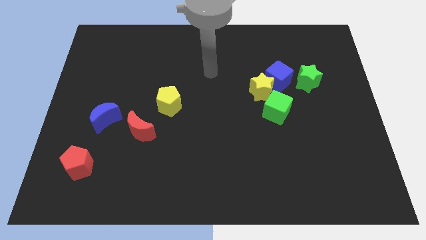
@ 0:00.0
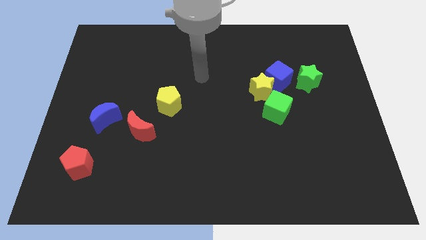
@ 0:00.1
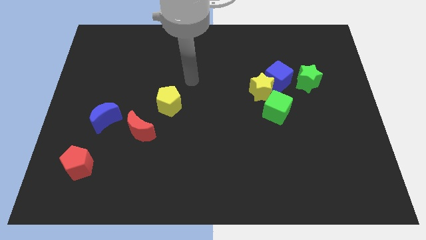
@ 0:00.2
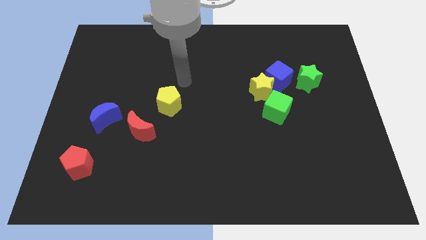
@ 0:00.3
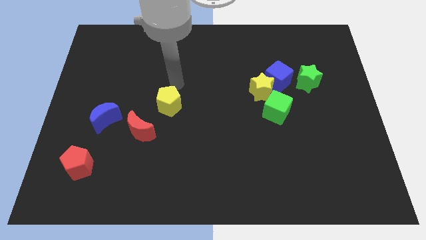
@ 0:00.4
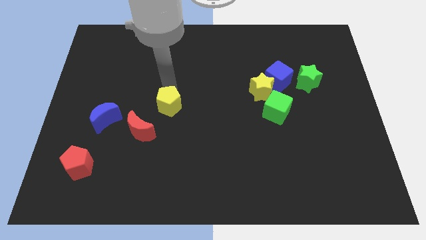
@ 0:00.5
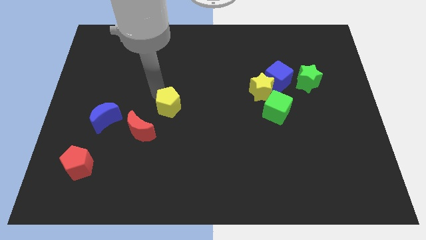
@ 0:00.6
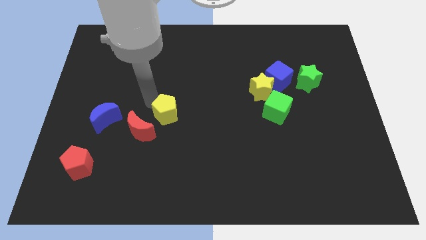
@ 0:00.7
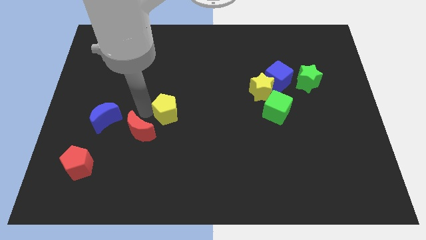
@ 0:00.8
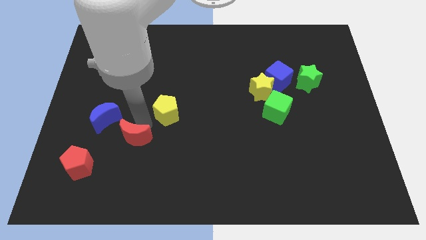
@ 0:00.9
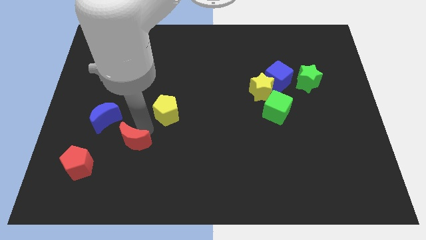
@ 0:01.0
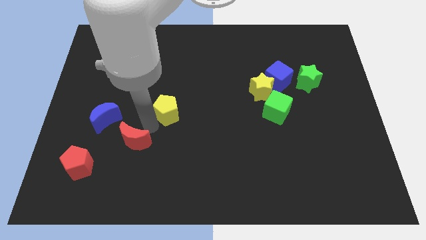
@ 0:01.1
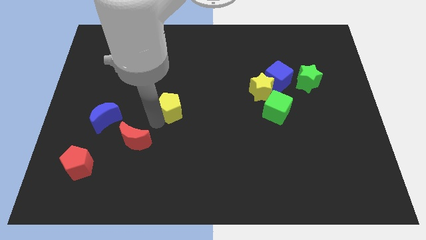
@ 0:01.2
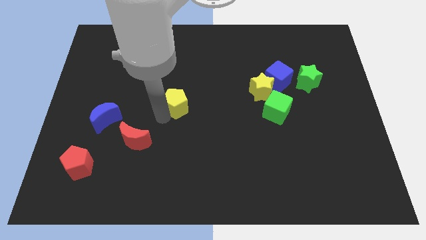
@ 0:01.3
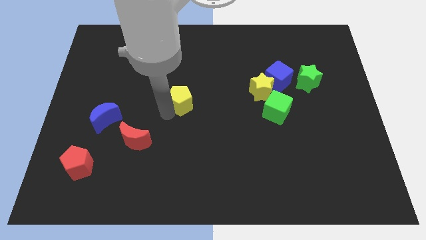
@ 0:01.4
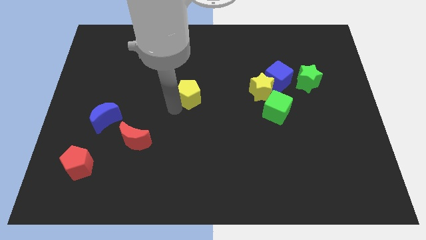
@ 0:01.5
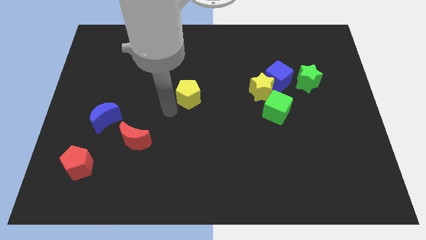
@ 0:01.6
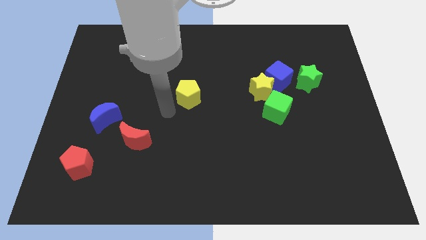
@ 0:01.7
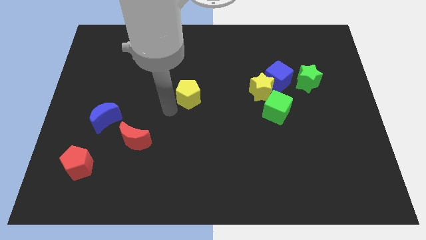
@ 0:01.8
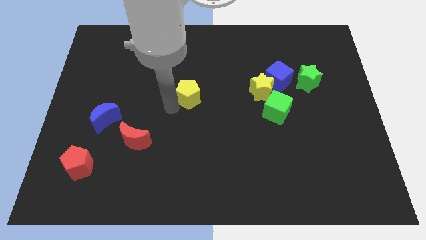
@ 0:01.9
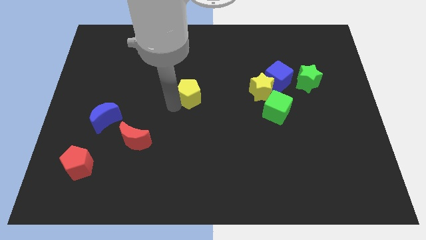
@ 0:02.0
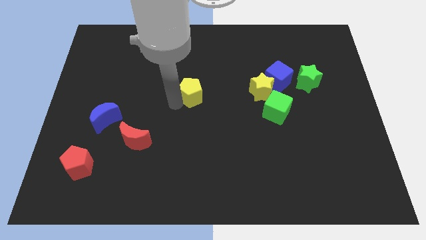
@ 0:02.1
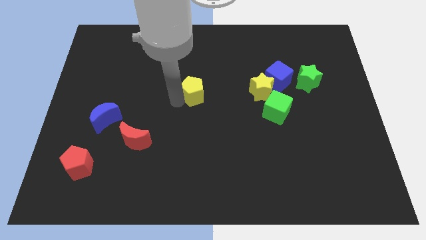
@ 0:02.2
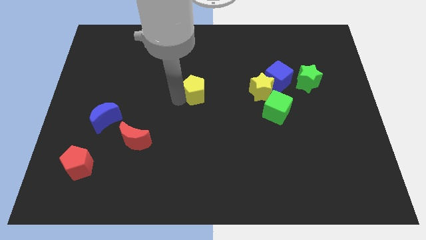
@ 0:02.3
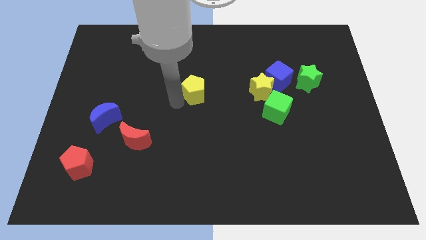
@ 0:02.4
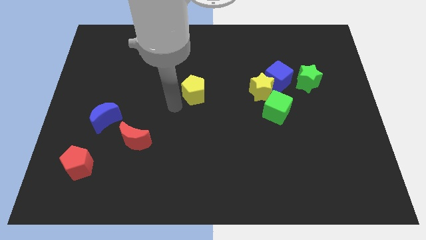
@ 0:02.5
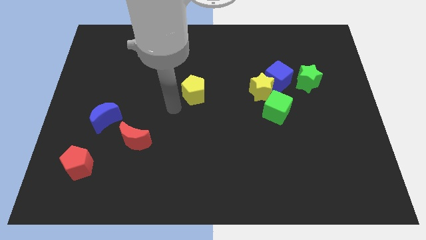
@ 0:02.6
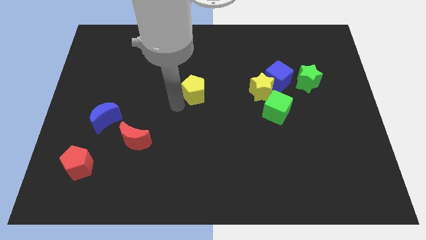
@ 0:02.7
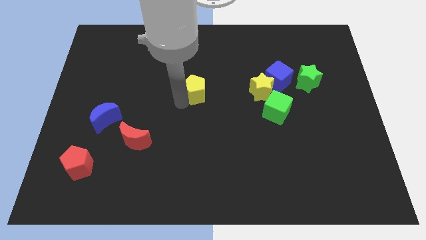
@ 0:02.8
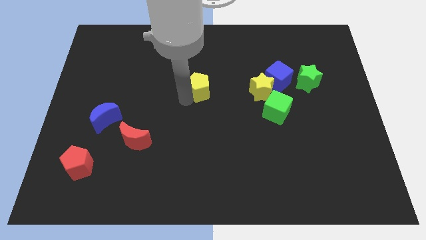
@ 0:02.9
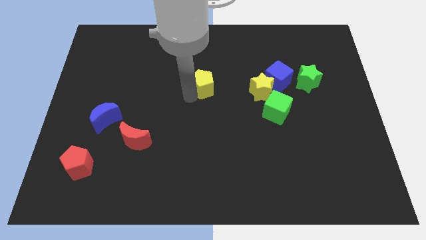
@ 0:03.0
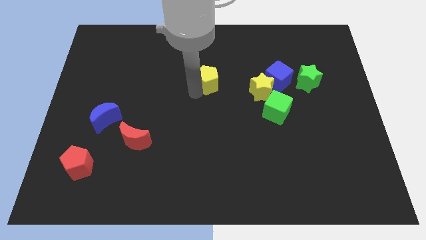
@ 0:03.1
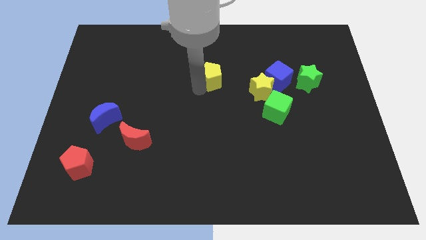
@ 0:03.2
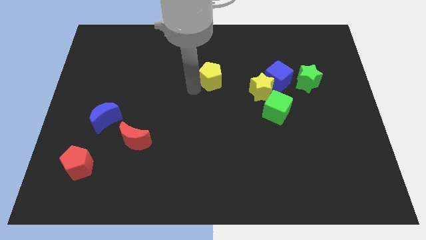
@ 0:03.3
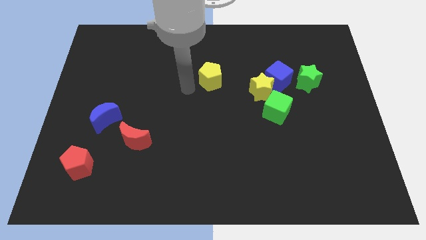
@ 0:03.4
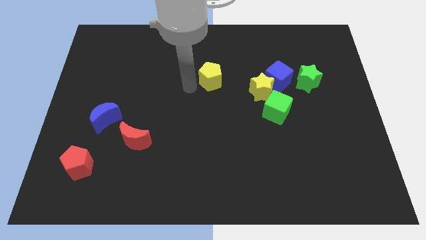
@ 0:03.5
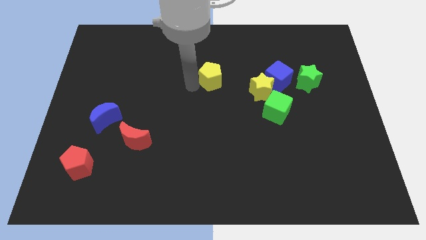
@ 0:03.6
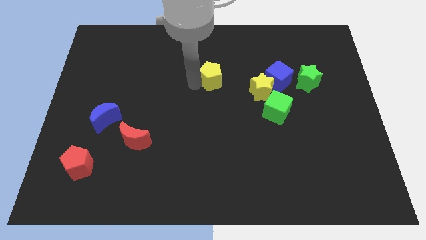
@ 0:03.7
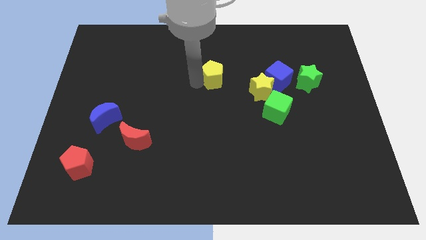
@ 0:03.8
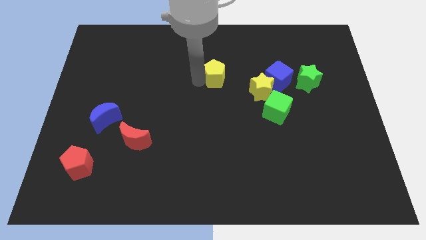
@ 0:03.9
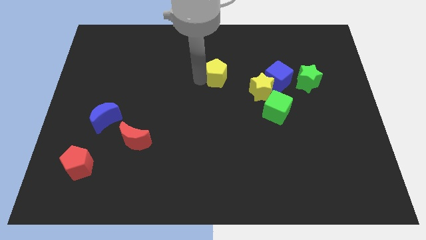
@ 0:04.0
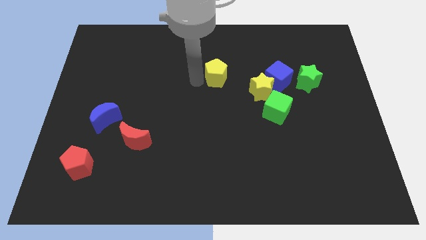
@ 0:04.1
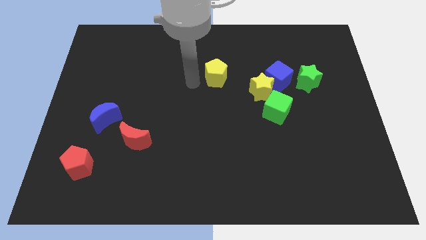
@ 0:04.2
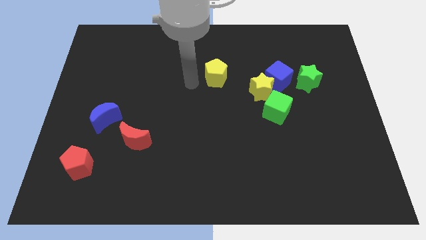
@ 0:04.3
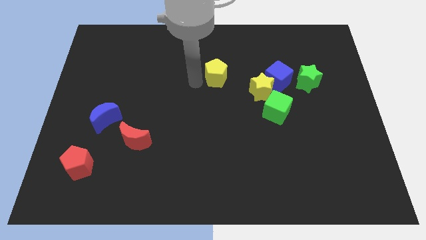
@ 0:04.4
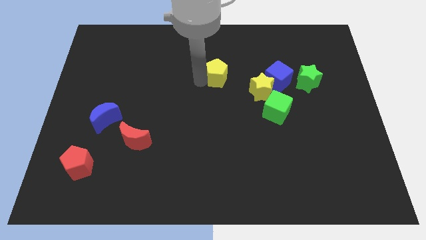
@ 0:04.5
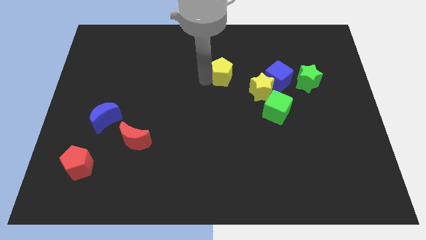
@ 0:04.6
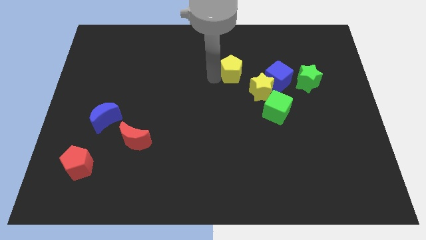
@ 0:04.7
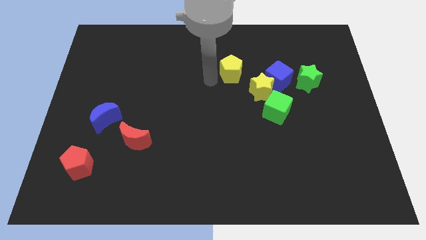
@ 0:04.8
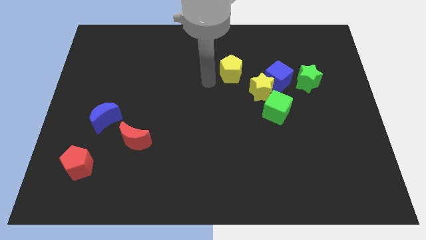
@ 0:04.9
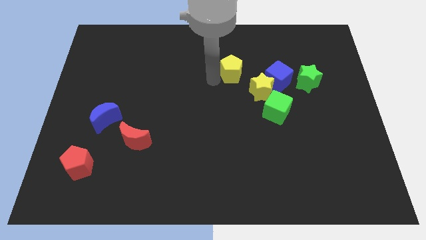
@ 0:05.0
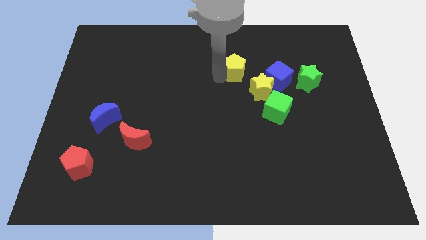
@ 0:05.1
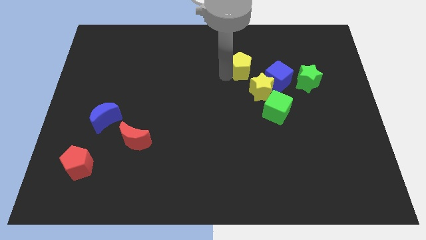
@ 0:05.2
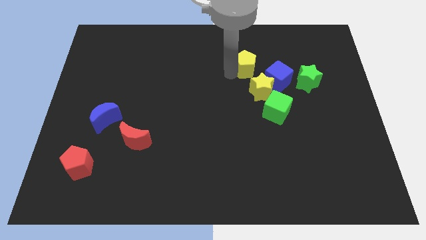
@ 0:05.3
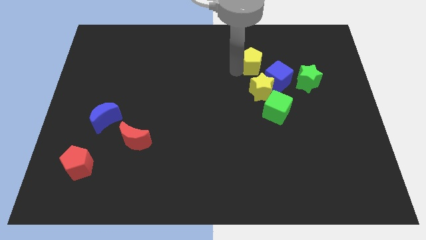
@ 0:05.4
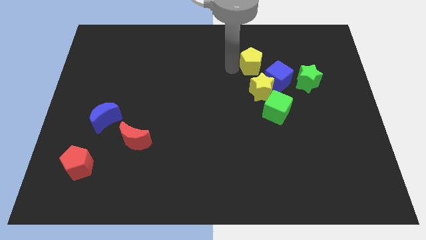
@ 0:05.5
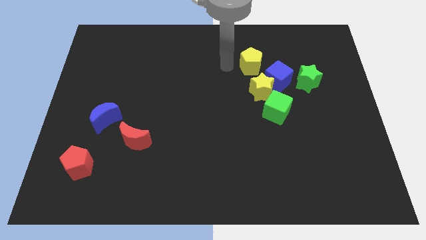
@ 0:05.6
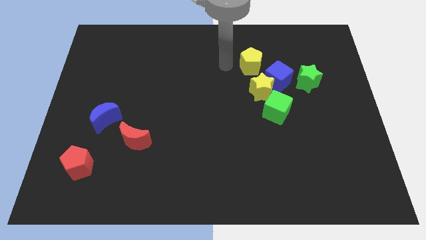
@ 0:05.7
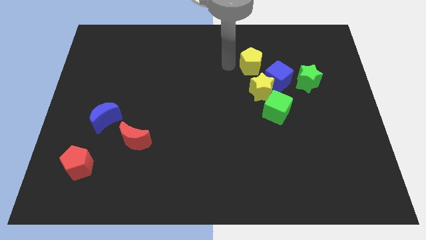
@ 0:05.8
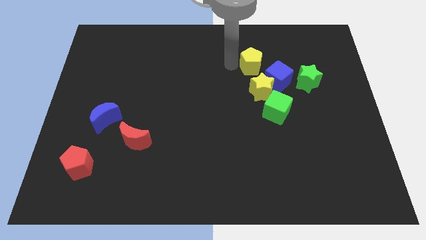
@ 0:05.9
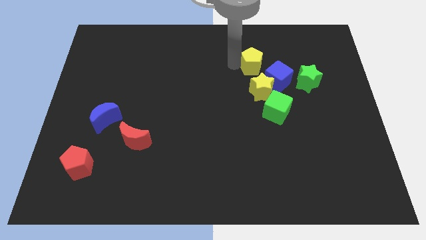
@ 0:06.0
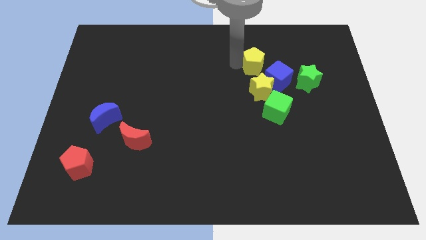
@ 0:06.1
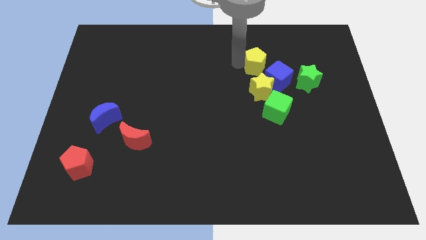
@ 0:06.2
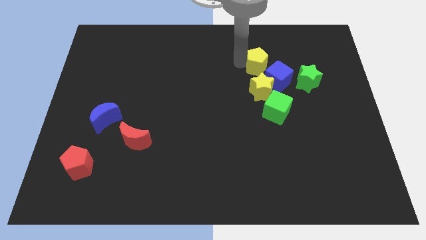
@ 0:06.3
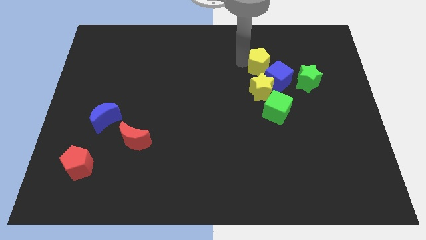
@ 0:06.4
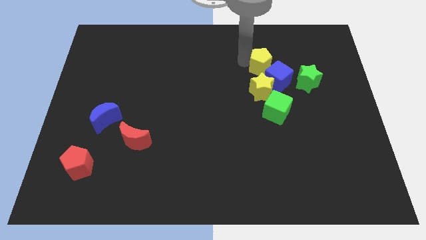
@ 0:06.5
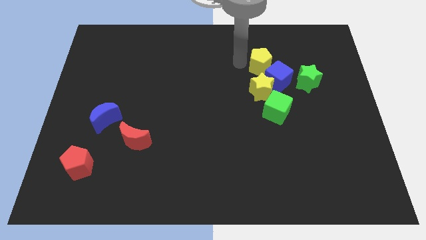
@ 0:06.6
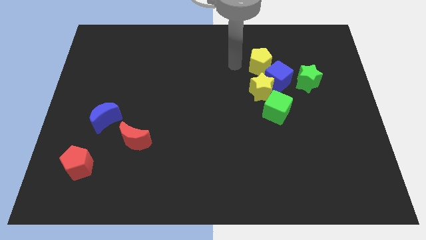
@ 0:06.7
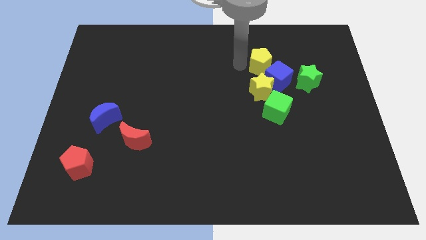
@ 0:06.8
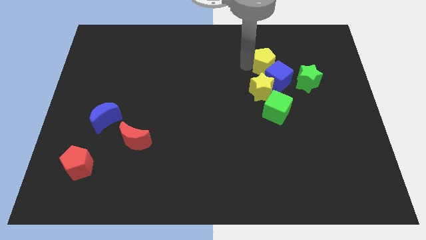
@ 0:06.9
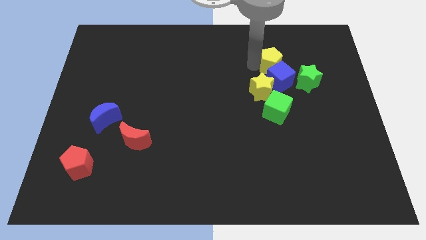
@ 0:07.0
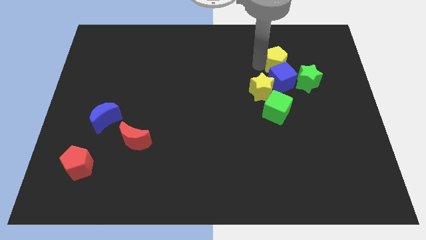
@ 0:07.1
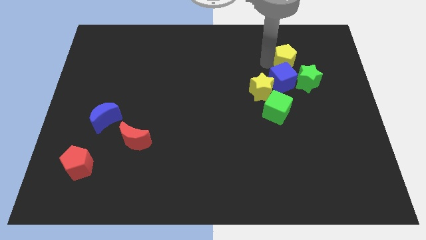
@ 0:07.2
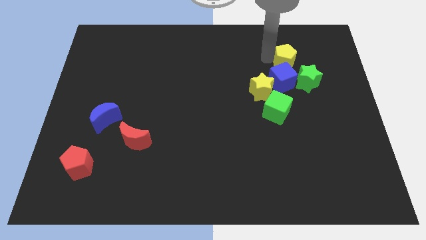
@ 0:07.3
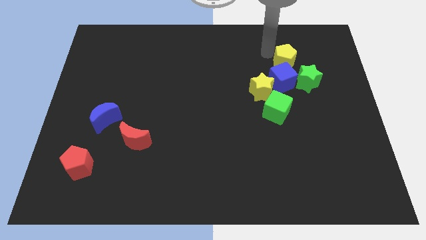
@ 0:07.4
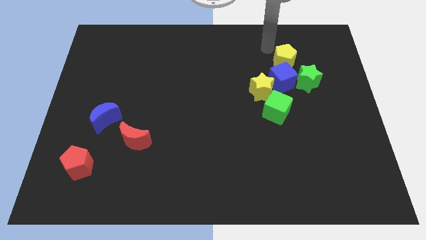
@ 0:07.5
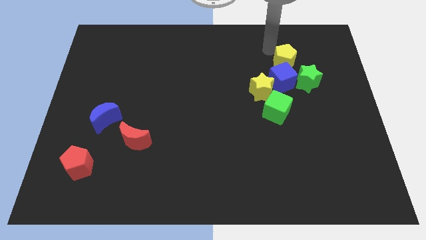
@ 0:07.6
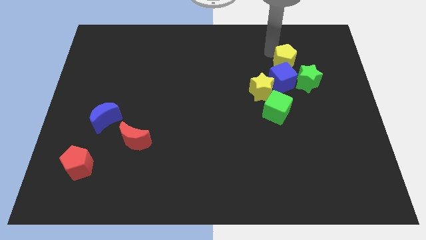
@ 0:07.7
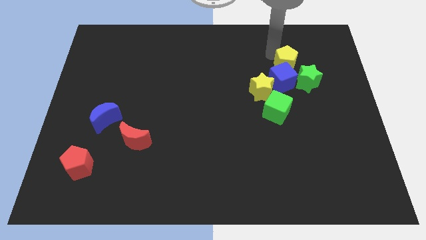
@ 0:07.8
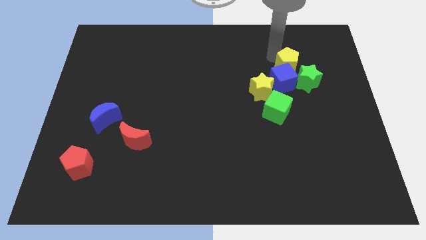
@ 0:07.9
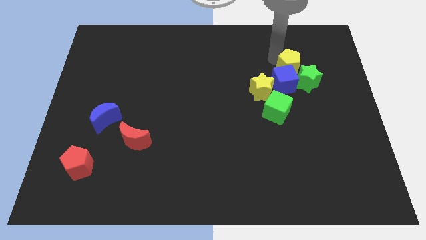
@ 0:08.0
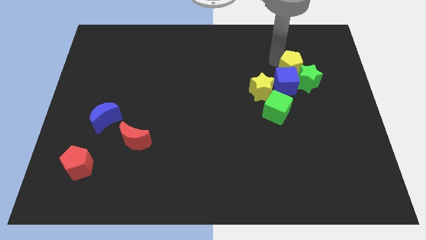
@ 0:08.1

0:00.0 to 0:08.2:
move the yellow pentagon close to the green star
